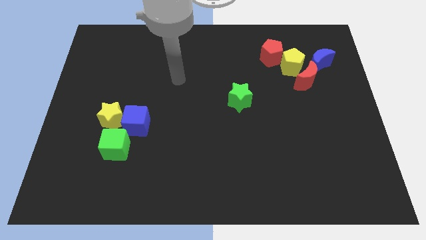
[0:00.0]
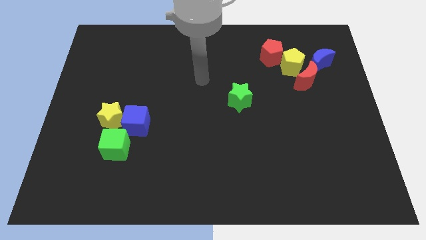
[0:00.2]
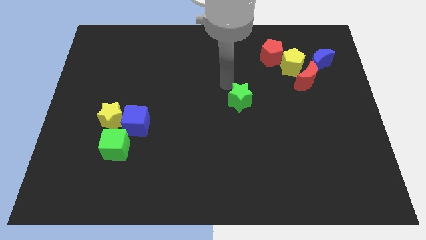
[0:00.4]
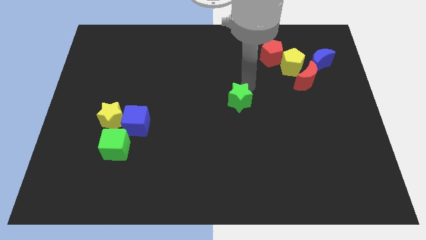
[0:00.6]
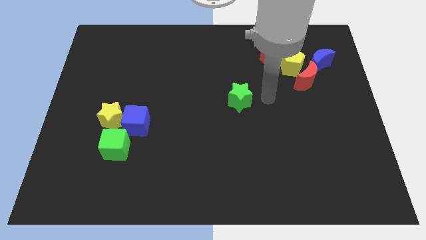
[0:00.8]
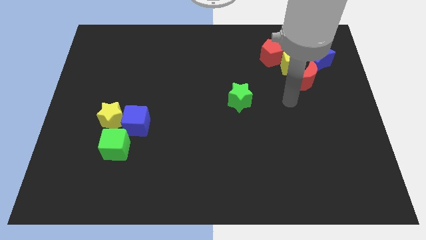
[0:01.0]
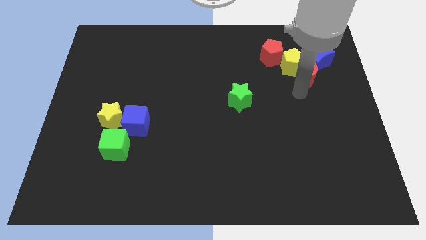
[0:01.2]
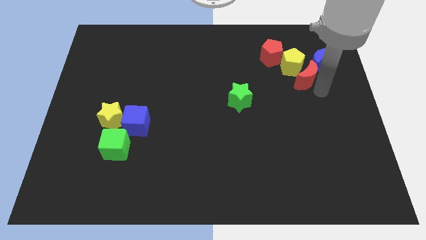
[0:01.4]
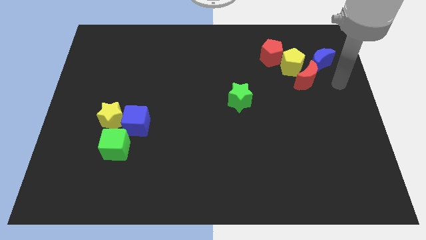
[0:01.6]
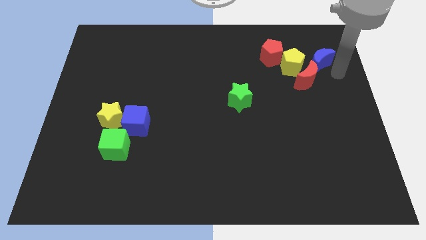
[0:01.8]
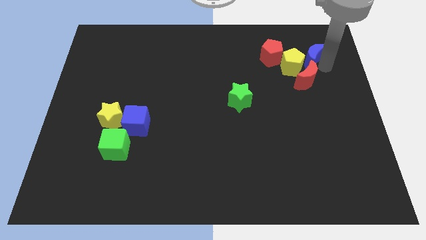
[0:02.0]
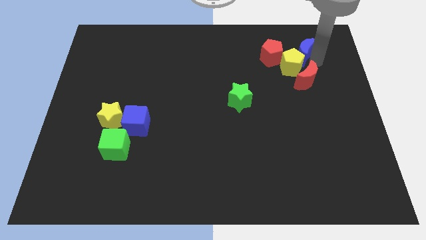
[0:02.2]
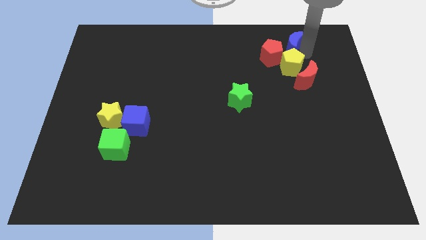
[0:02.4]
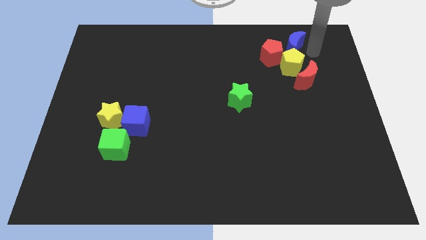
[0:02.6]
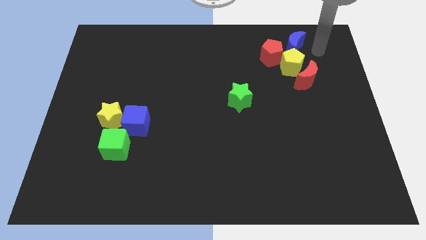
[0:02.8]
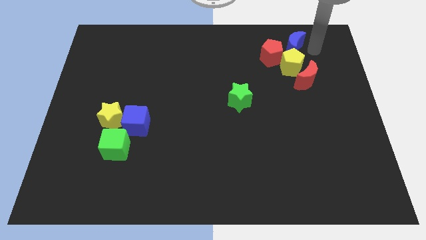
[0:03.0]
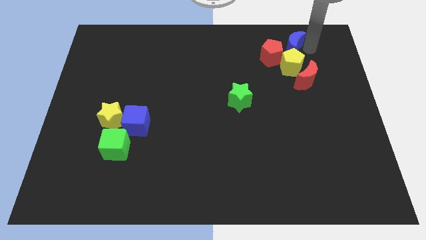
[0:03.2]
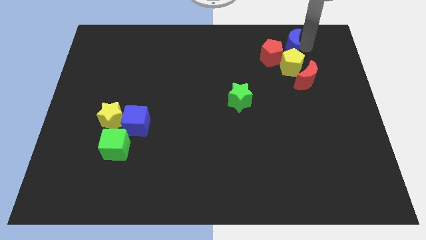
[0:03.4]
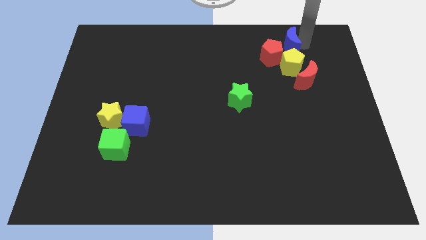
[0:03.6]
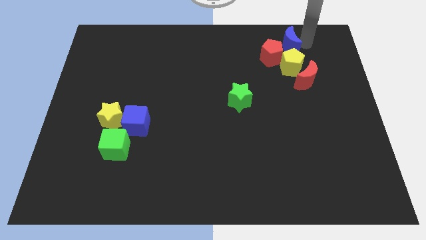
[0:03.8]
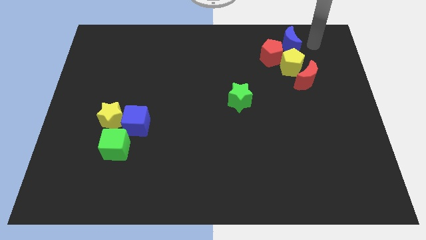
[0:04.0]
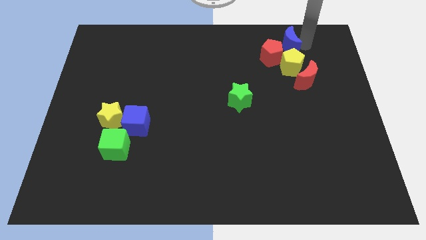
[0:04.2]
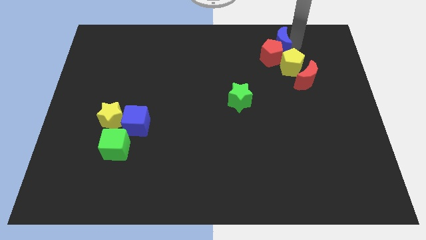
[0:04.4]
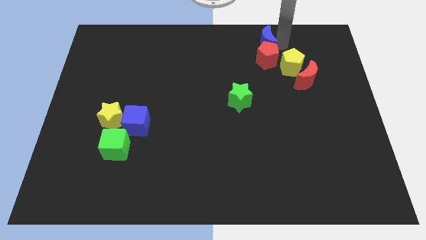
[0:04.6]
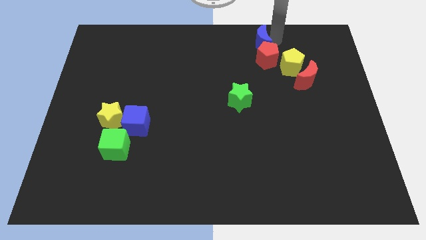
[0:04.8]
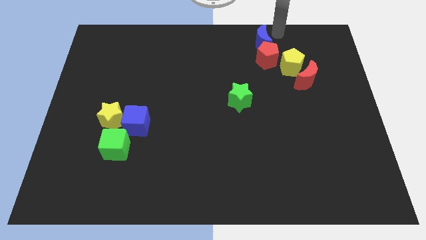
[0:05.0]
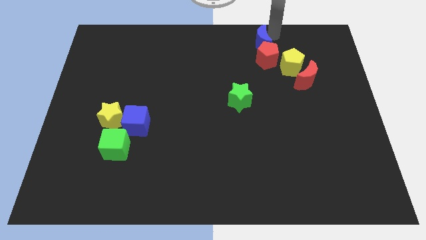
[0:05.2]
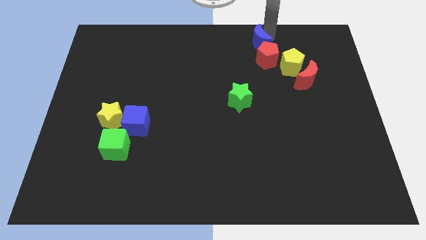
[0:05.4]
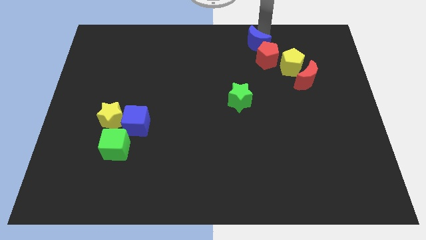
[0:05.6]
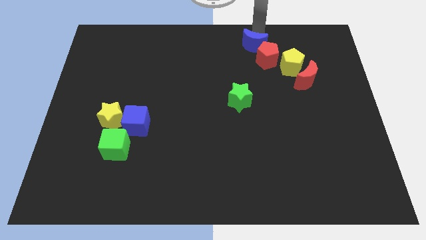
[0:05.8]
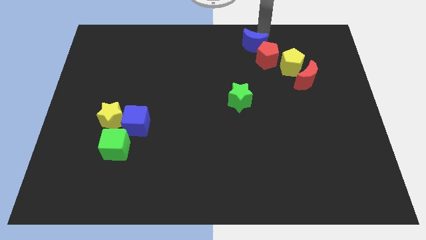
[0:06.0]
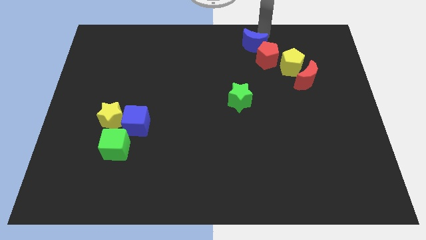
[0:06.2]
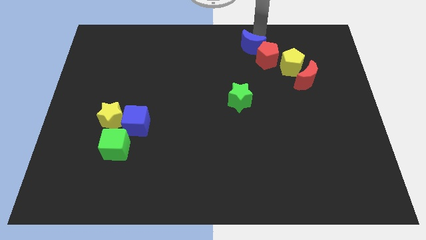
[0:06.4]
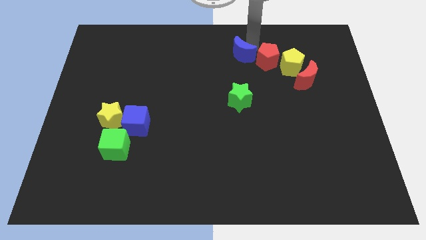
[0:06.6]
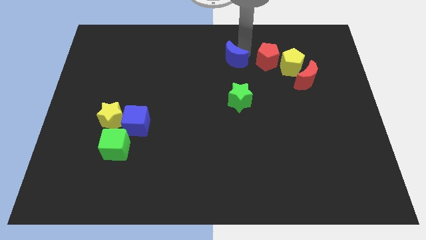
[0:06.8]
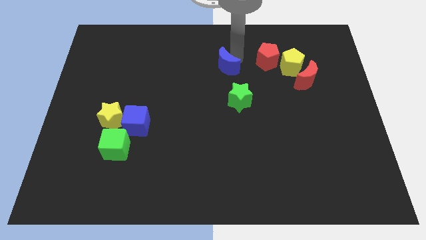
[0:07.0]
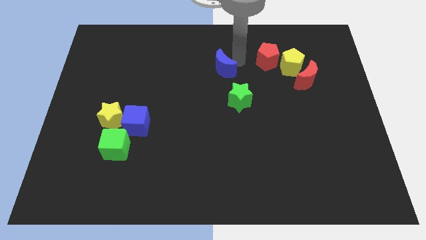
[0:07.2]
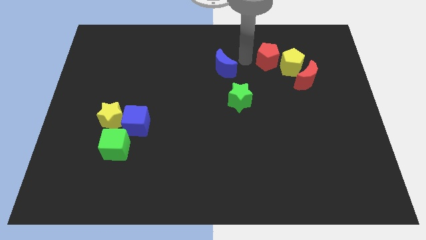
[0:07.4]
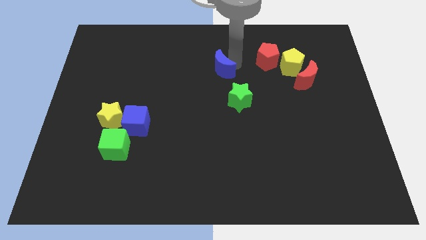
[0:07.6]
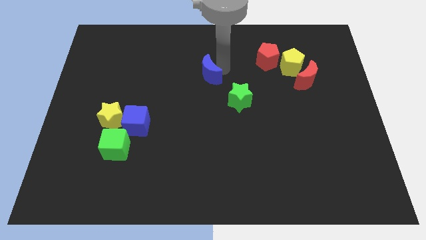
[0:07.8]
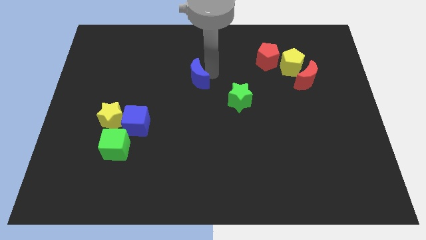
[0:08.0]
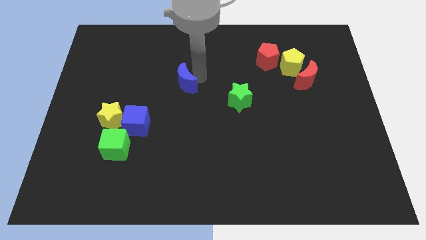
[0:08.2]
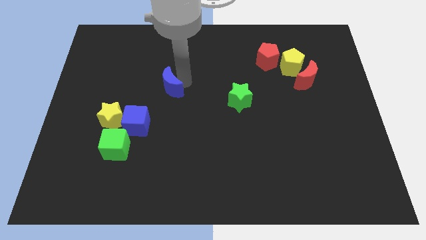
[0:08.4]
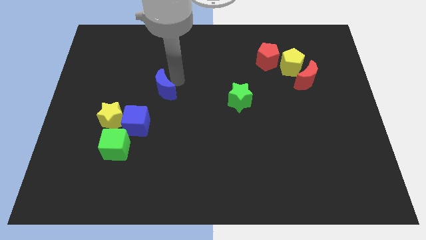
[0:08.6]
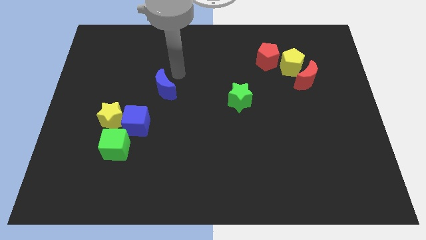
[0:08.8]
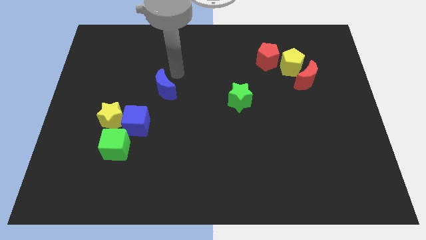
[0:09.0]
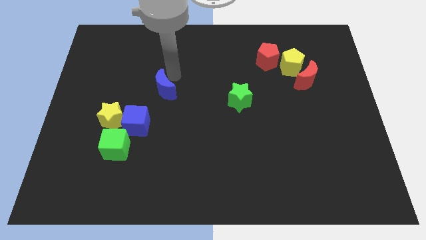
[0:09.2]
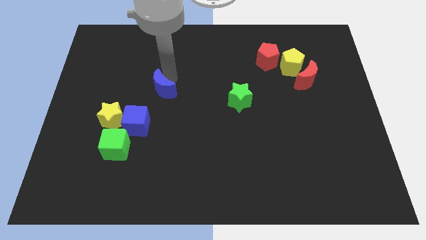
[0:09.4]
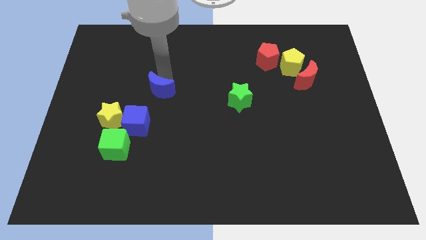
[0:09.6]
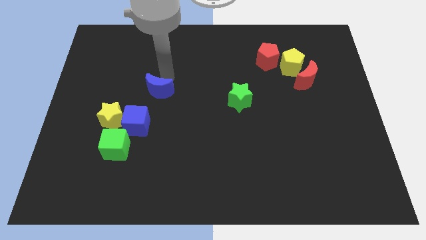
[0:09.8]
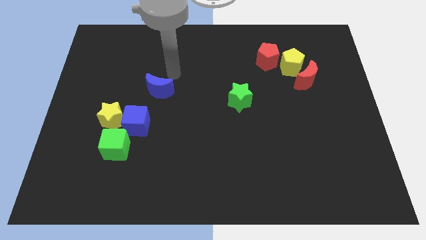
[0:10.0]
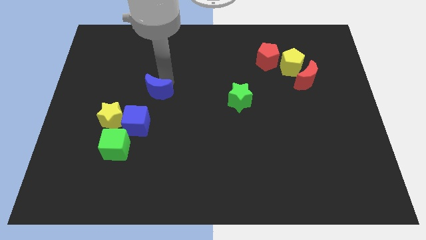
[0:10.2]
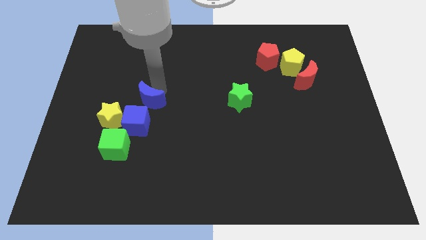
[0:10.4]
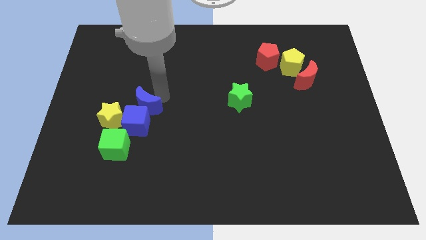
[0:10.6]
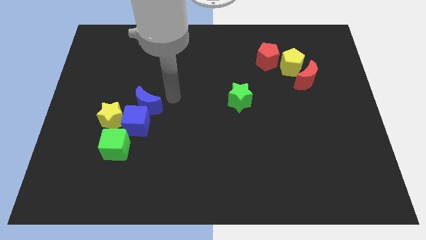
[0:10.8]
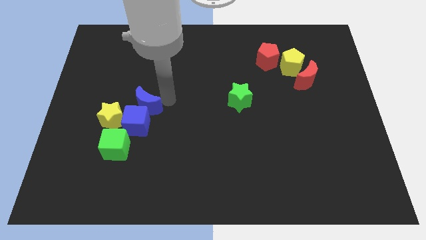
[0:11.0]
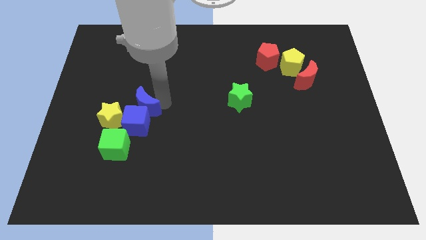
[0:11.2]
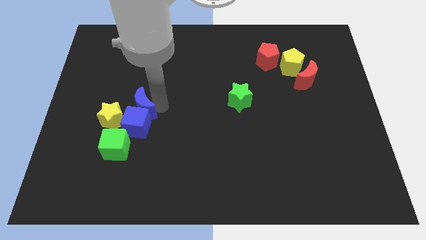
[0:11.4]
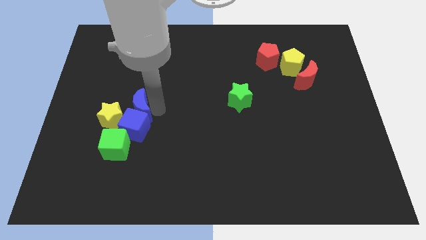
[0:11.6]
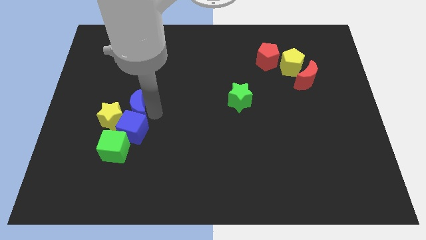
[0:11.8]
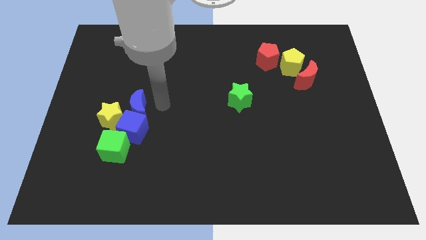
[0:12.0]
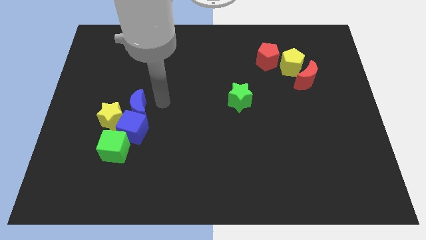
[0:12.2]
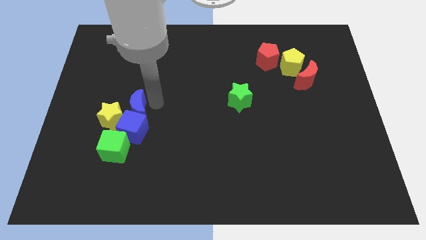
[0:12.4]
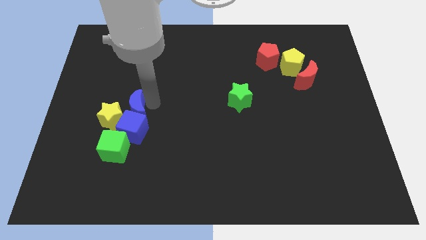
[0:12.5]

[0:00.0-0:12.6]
put the blue moon close to the yellow star

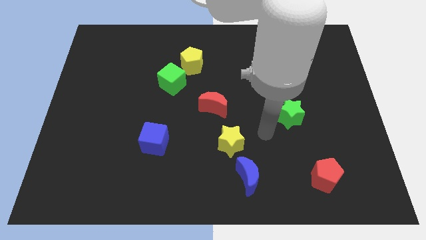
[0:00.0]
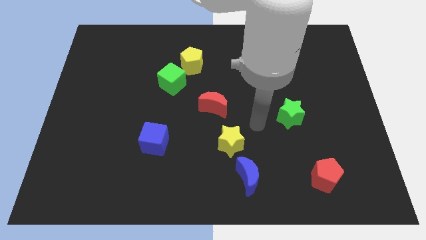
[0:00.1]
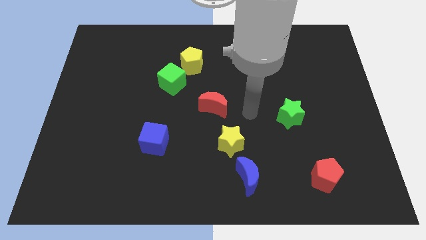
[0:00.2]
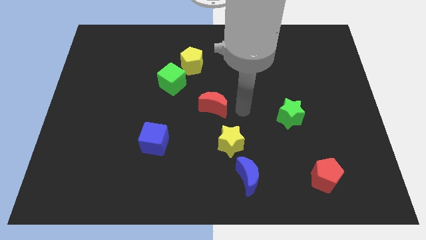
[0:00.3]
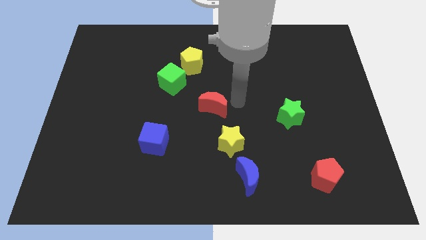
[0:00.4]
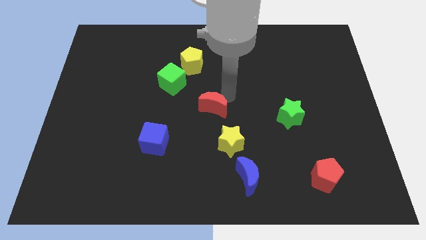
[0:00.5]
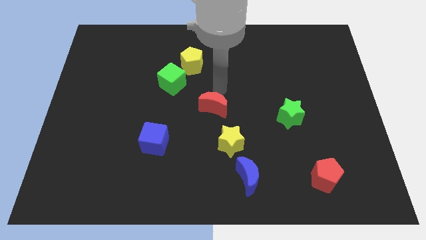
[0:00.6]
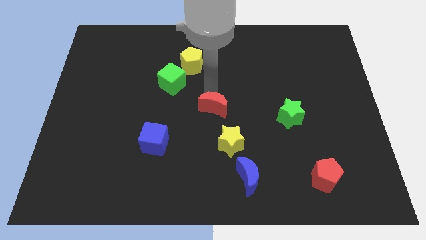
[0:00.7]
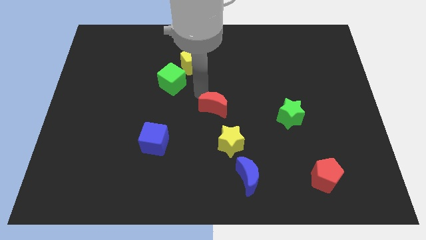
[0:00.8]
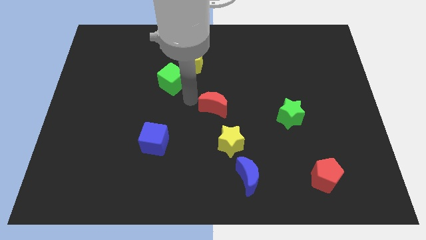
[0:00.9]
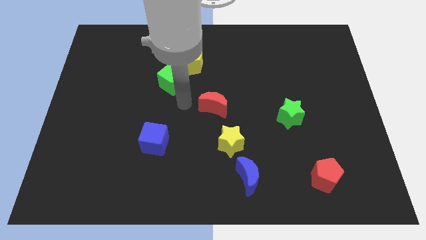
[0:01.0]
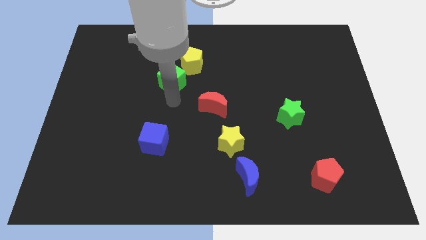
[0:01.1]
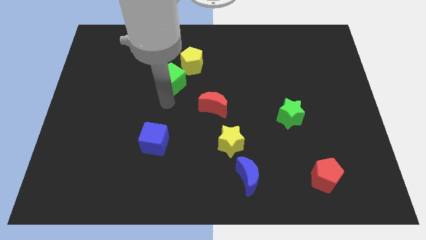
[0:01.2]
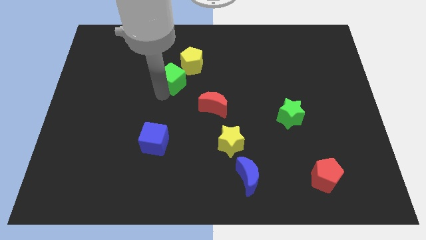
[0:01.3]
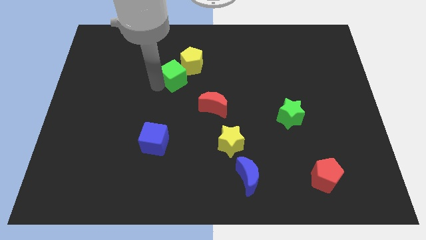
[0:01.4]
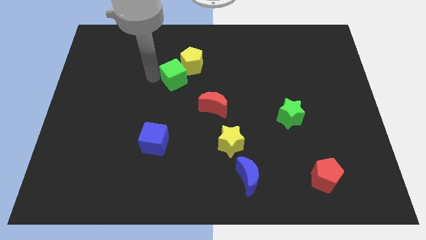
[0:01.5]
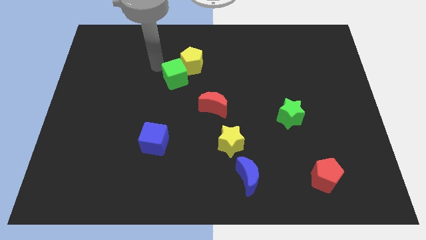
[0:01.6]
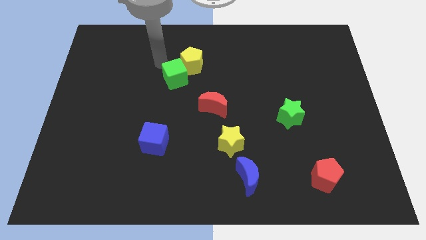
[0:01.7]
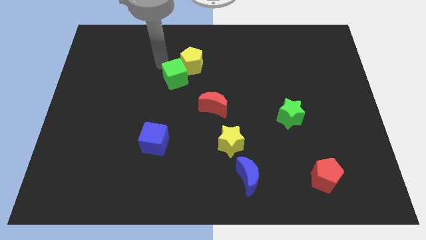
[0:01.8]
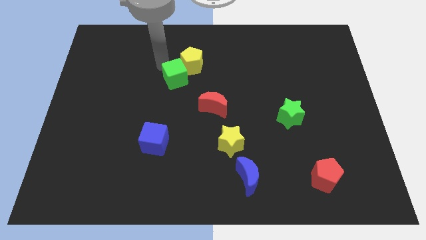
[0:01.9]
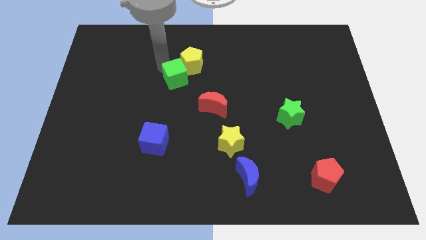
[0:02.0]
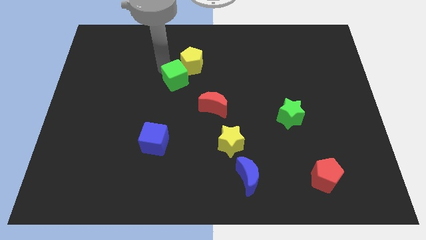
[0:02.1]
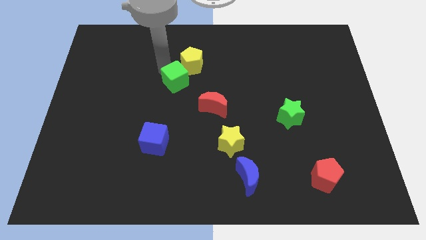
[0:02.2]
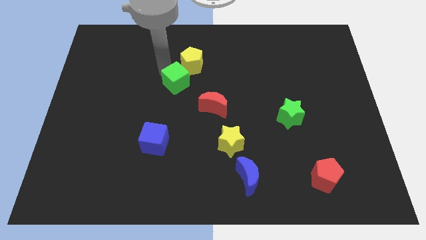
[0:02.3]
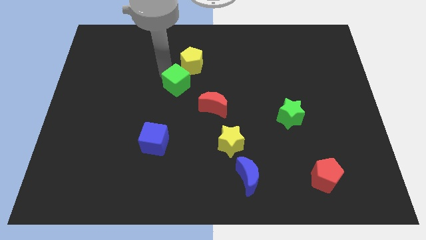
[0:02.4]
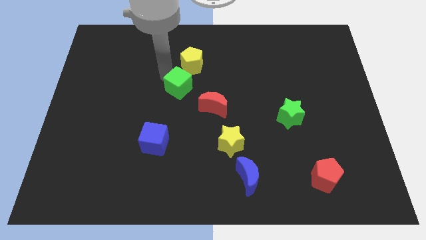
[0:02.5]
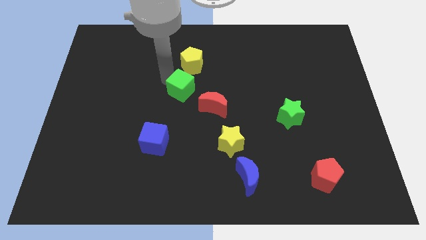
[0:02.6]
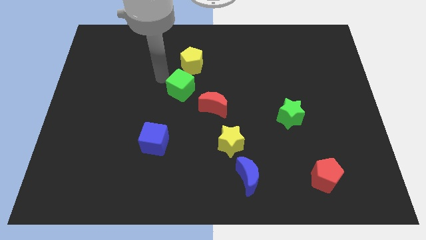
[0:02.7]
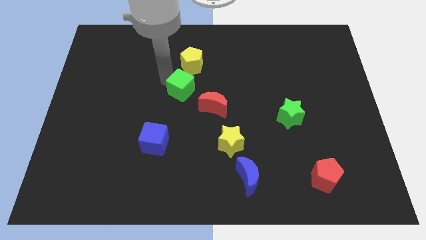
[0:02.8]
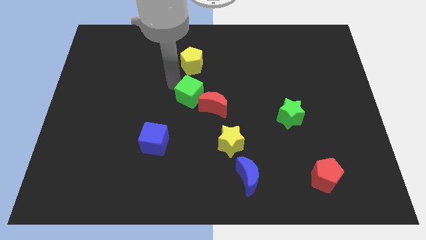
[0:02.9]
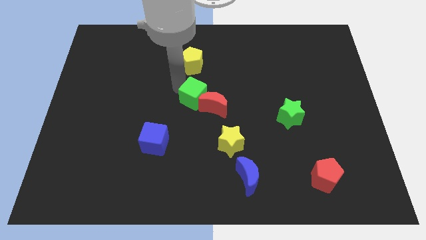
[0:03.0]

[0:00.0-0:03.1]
put the green cube towards the red moon
